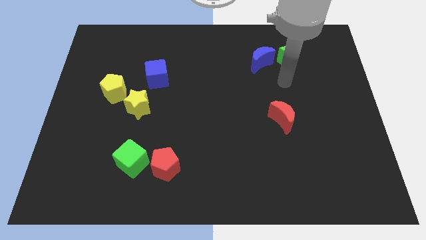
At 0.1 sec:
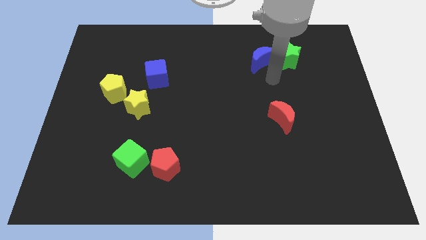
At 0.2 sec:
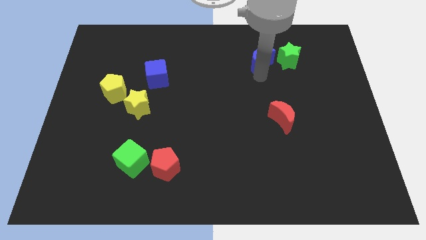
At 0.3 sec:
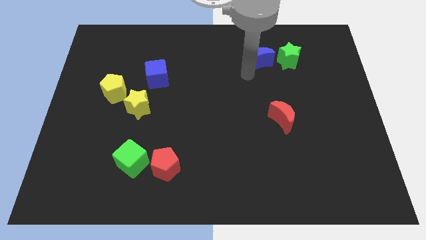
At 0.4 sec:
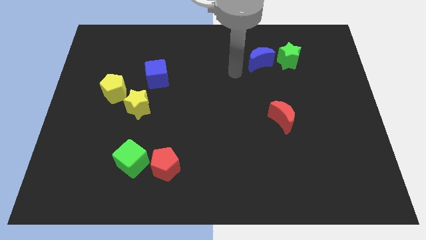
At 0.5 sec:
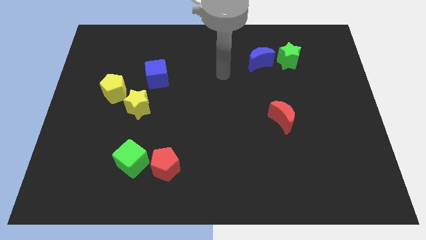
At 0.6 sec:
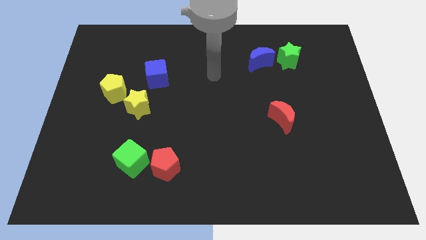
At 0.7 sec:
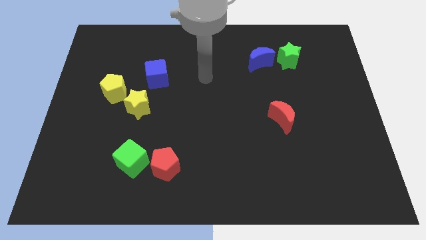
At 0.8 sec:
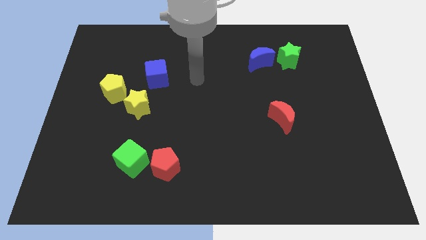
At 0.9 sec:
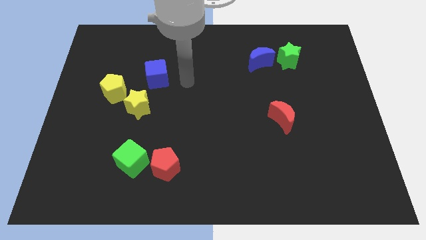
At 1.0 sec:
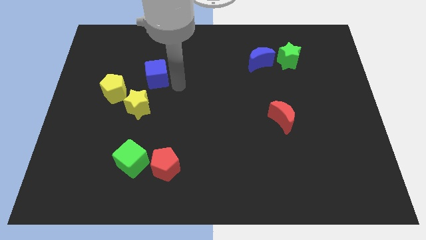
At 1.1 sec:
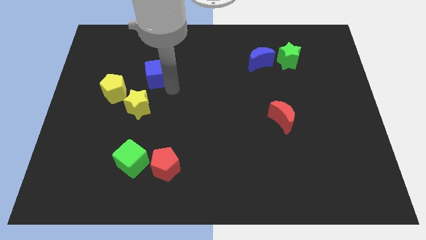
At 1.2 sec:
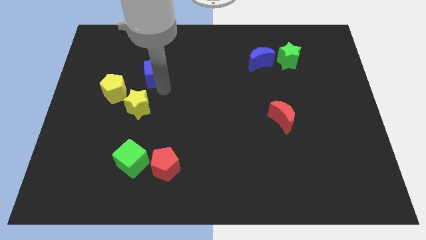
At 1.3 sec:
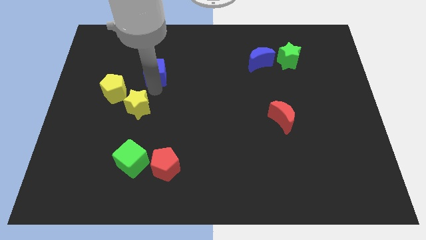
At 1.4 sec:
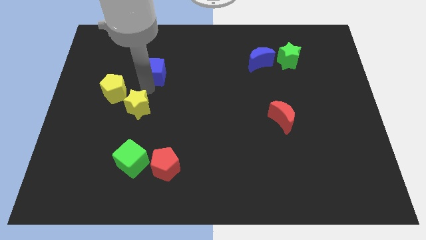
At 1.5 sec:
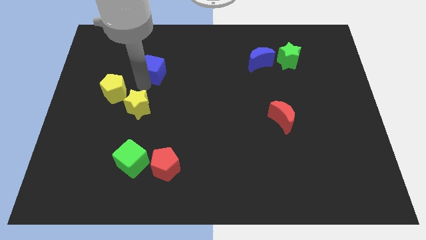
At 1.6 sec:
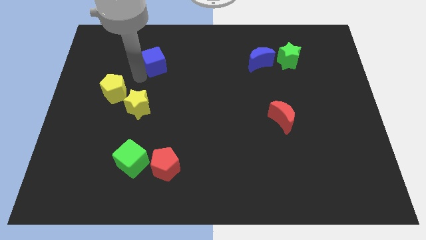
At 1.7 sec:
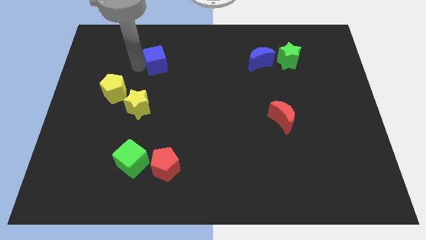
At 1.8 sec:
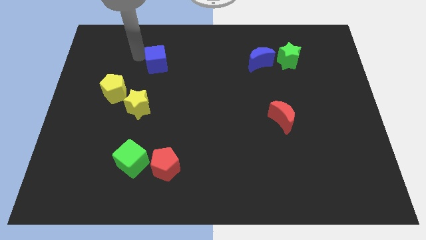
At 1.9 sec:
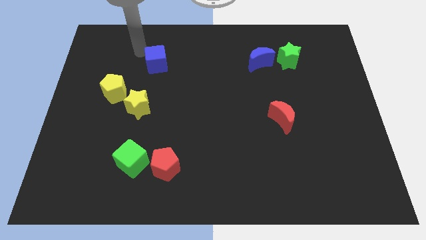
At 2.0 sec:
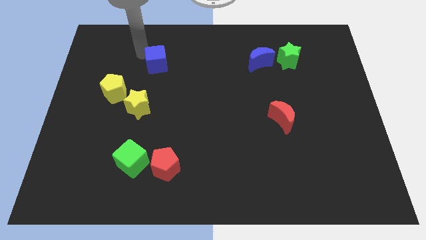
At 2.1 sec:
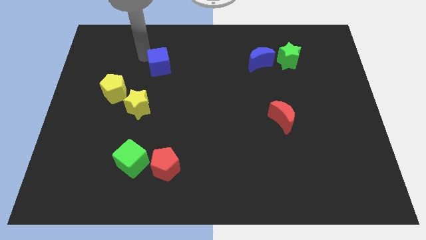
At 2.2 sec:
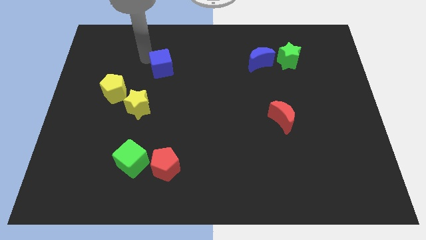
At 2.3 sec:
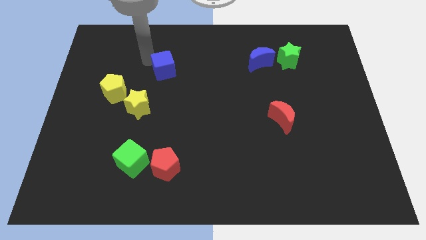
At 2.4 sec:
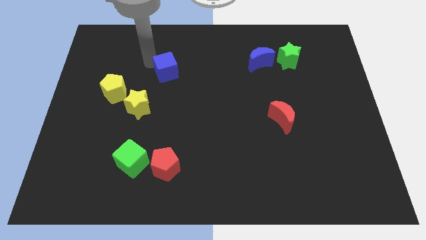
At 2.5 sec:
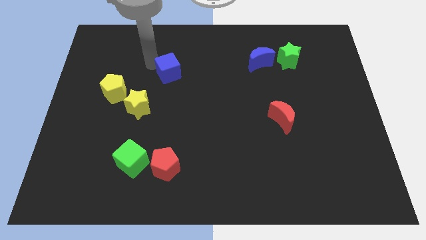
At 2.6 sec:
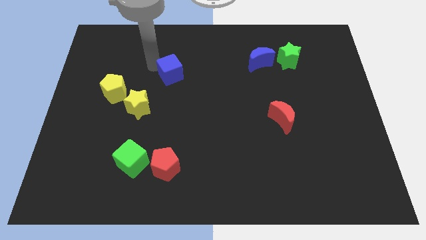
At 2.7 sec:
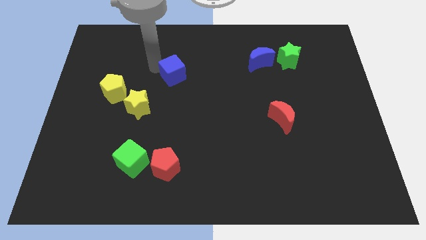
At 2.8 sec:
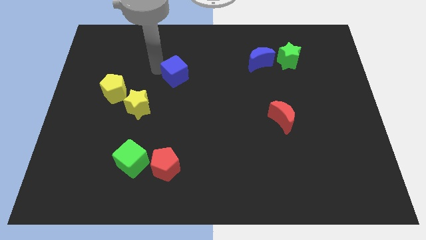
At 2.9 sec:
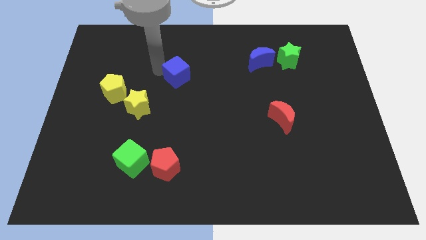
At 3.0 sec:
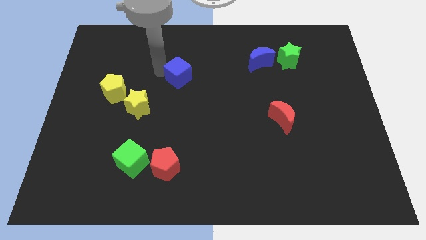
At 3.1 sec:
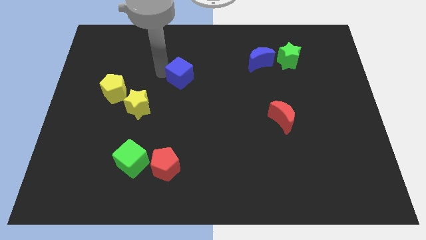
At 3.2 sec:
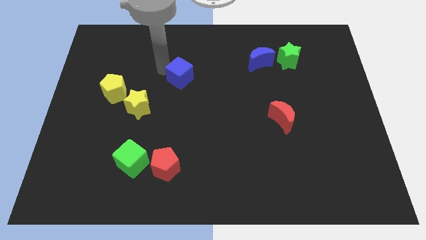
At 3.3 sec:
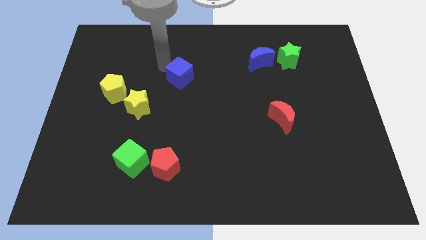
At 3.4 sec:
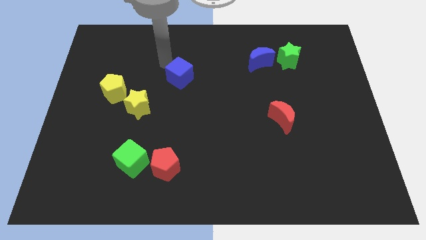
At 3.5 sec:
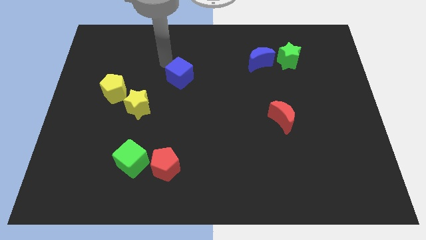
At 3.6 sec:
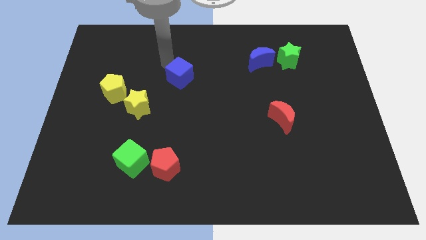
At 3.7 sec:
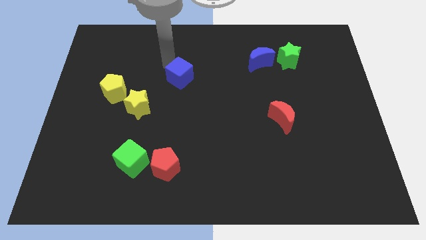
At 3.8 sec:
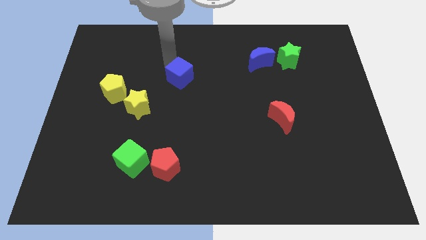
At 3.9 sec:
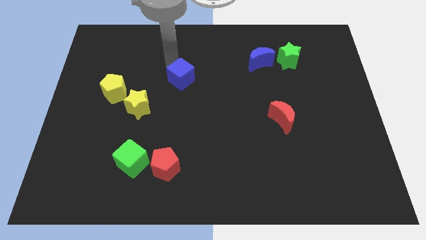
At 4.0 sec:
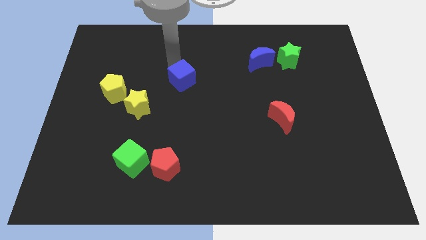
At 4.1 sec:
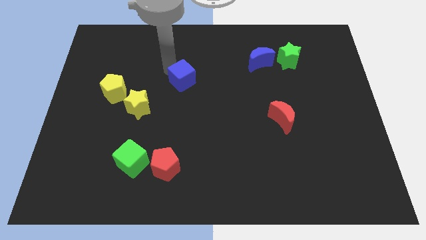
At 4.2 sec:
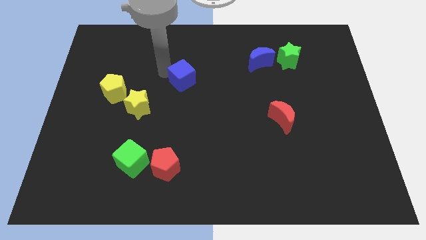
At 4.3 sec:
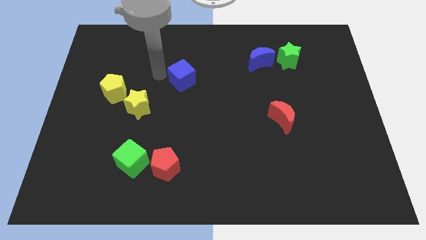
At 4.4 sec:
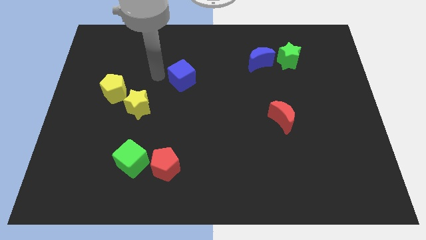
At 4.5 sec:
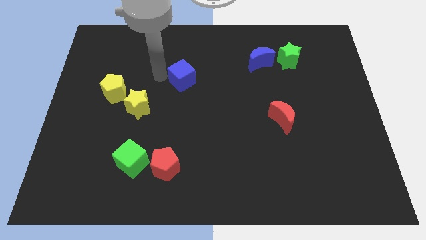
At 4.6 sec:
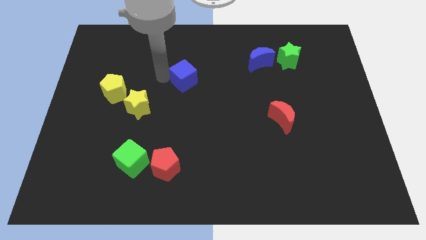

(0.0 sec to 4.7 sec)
move the blue cube right somewhat

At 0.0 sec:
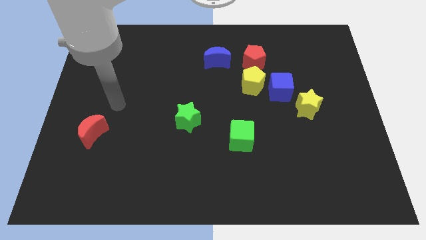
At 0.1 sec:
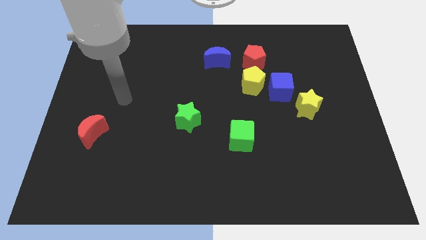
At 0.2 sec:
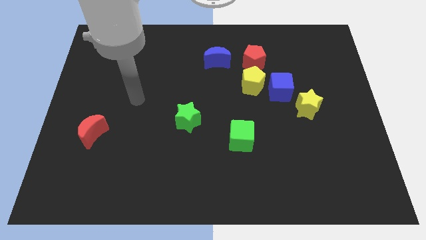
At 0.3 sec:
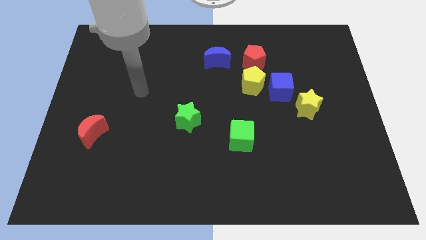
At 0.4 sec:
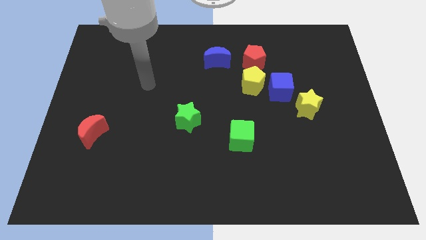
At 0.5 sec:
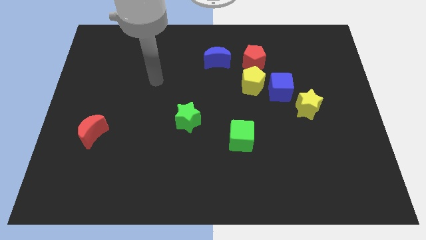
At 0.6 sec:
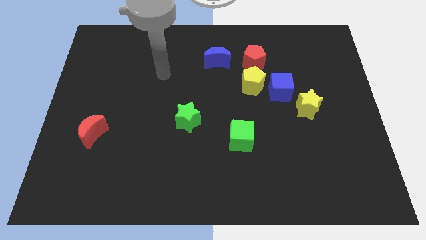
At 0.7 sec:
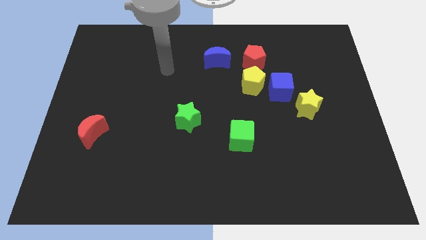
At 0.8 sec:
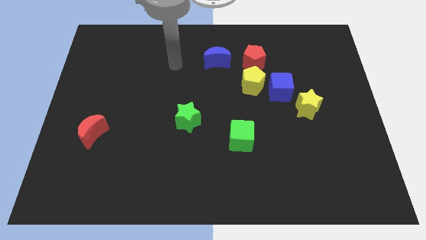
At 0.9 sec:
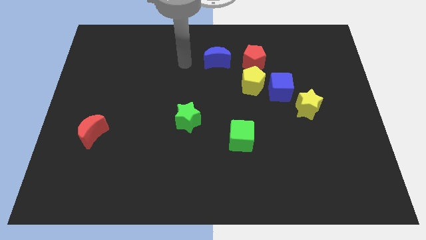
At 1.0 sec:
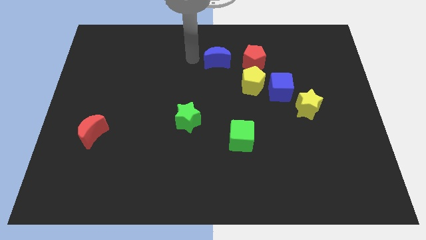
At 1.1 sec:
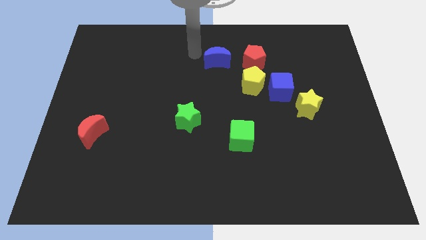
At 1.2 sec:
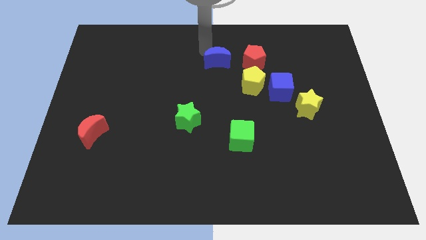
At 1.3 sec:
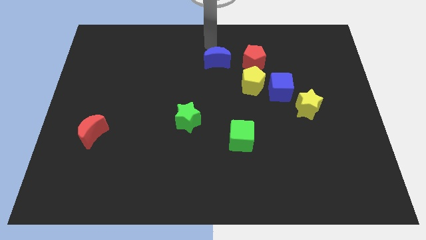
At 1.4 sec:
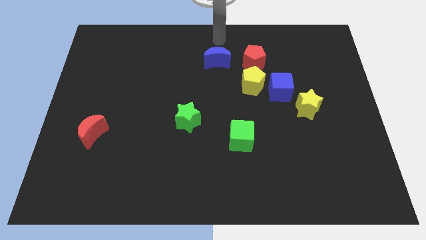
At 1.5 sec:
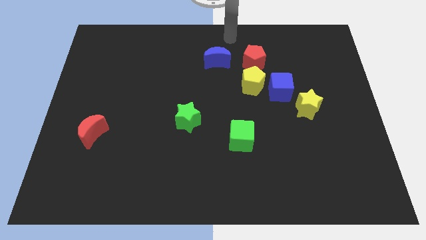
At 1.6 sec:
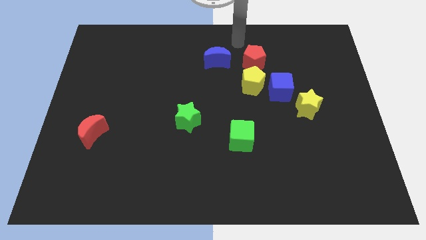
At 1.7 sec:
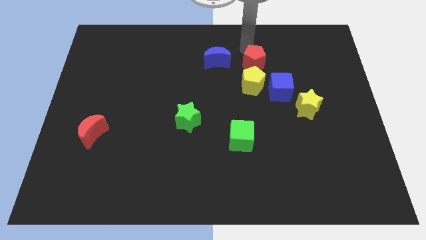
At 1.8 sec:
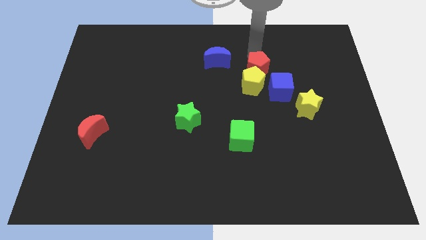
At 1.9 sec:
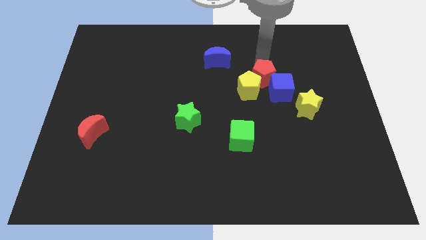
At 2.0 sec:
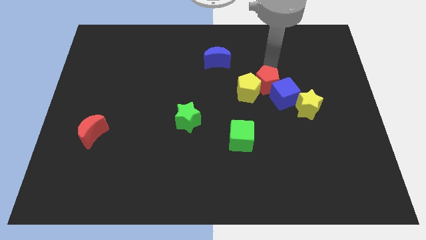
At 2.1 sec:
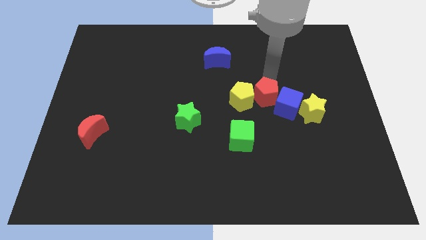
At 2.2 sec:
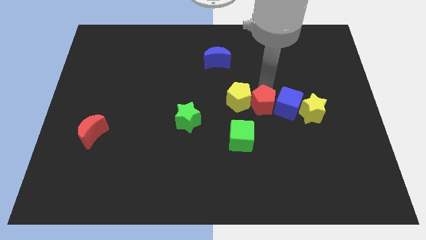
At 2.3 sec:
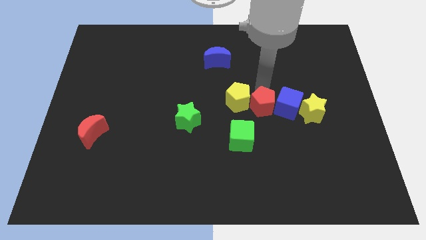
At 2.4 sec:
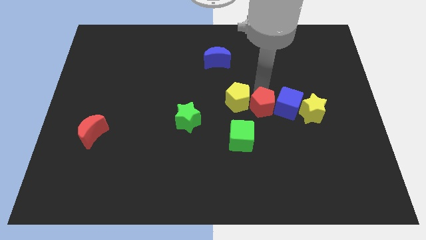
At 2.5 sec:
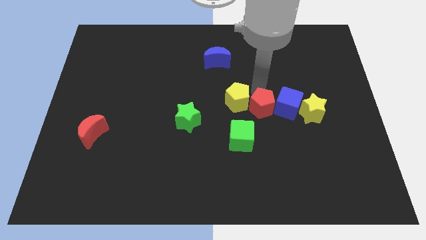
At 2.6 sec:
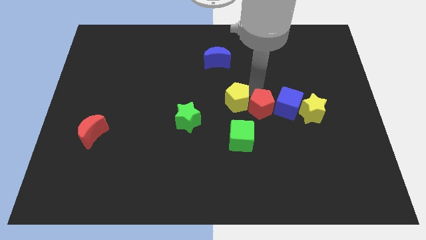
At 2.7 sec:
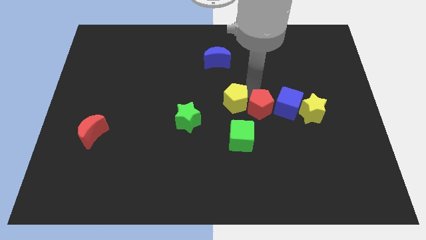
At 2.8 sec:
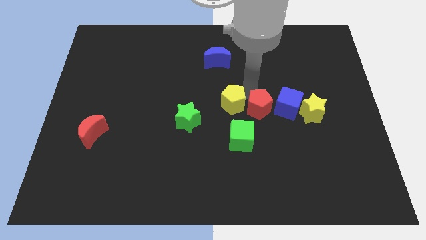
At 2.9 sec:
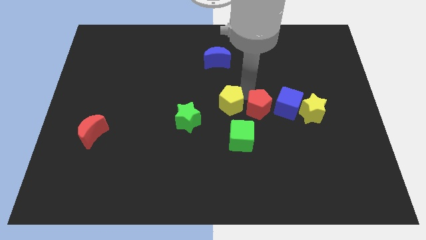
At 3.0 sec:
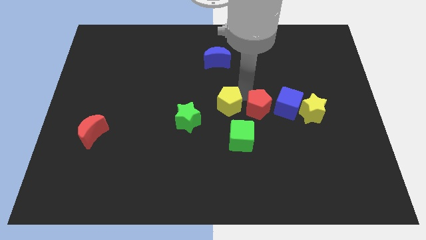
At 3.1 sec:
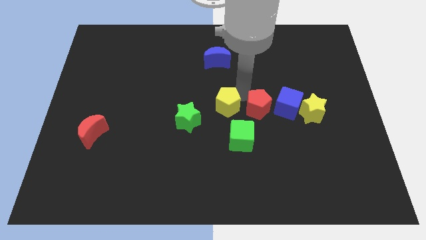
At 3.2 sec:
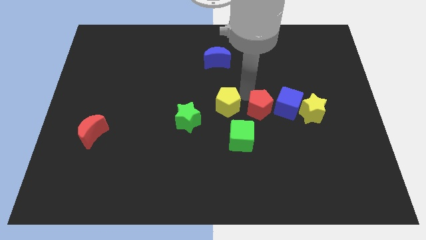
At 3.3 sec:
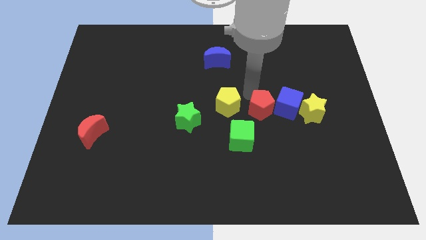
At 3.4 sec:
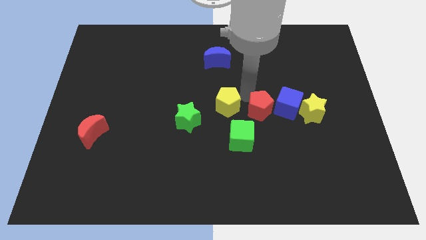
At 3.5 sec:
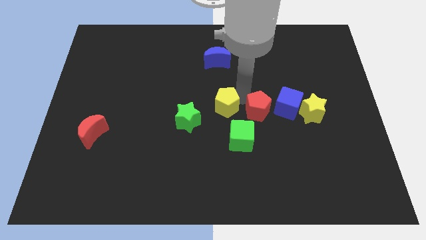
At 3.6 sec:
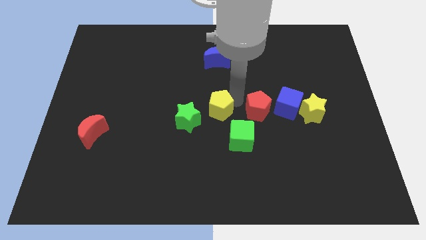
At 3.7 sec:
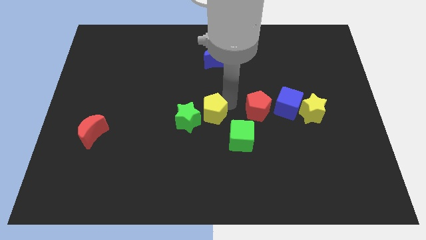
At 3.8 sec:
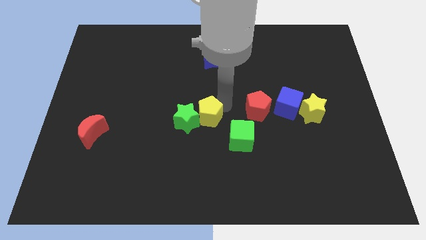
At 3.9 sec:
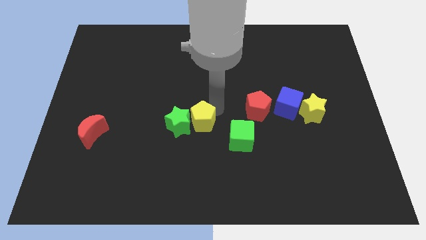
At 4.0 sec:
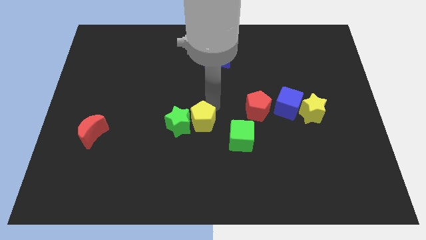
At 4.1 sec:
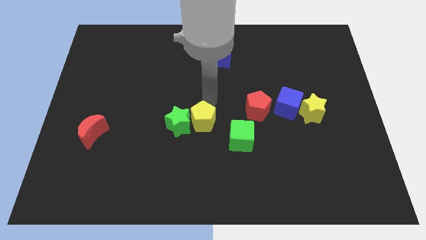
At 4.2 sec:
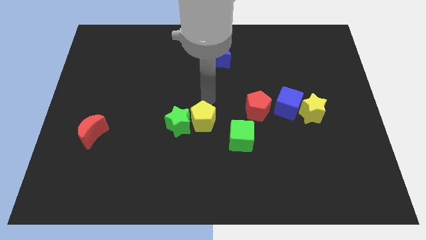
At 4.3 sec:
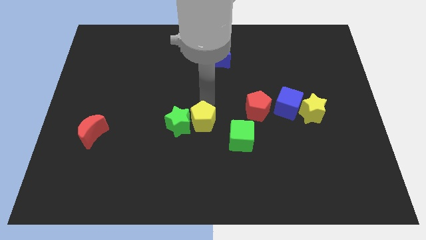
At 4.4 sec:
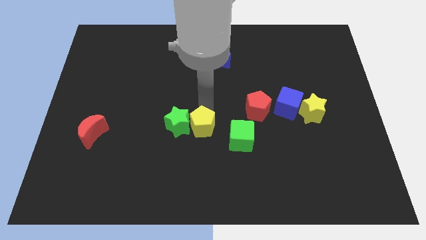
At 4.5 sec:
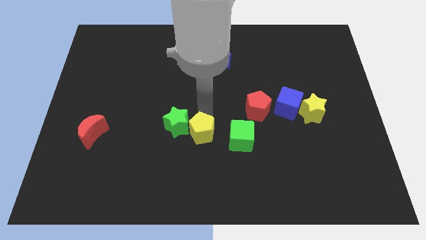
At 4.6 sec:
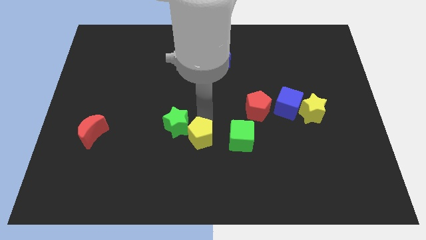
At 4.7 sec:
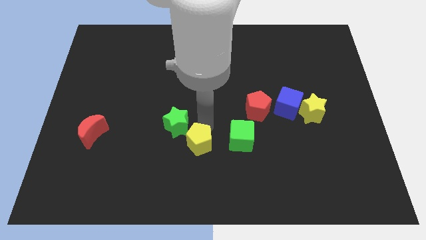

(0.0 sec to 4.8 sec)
move the yellow pentagon diagonally down and left
